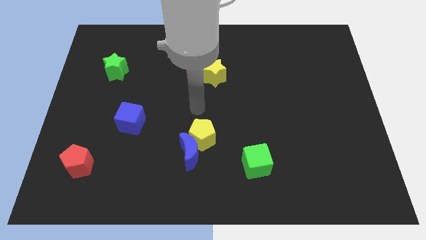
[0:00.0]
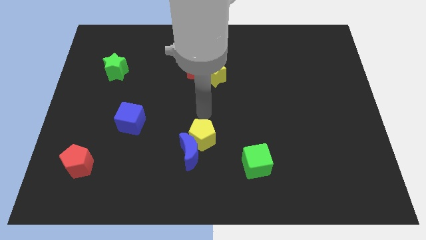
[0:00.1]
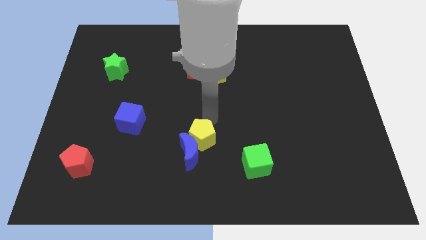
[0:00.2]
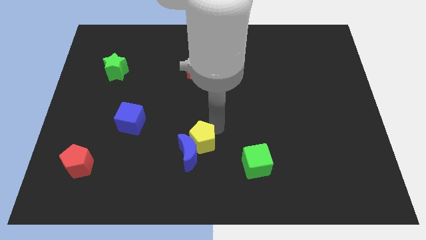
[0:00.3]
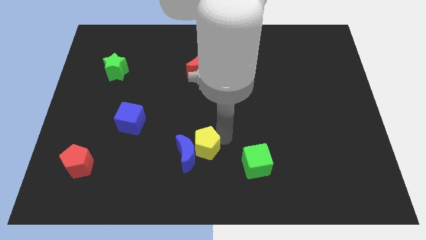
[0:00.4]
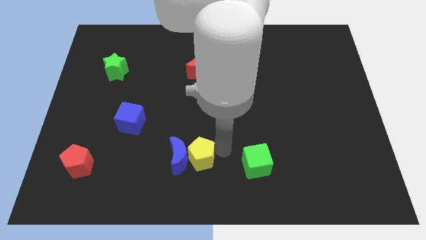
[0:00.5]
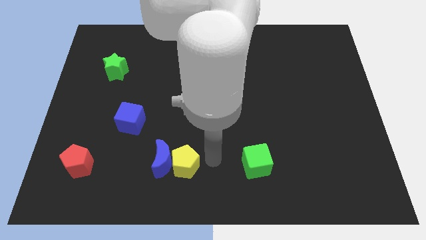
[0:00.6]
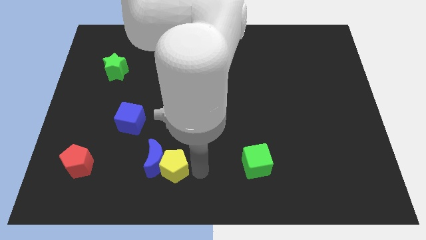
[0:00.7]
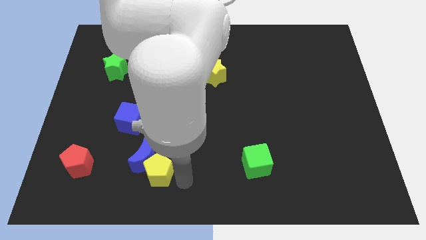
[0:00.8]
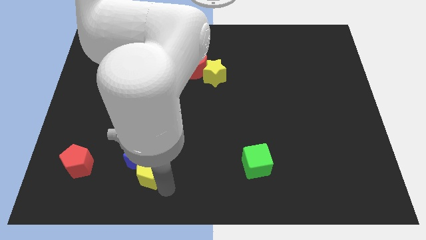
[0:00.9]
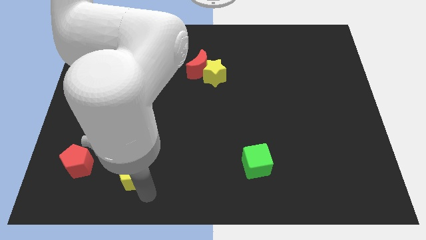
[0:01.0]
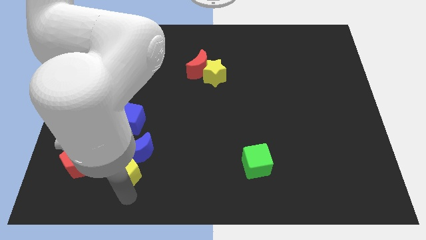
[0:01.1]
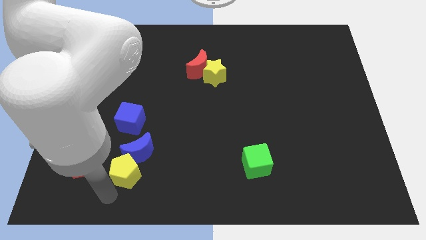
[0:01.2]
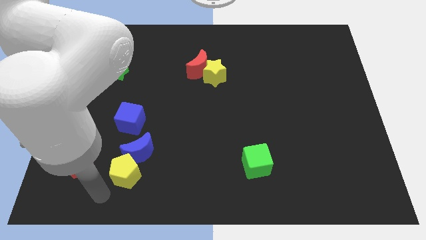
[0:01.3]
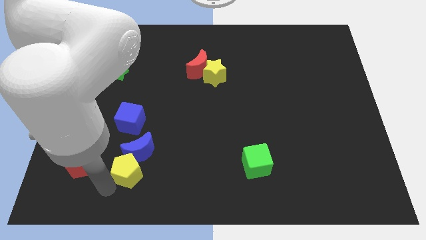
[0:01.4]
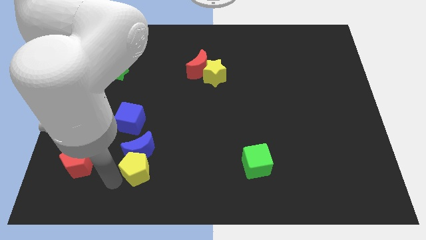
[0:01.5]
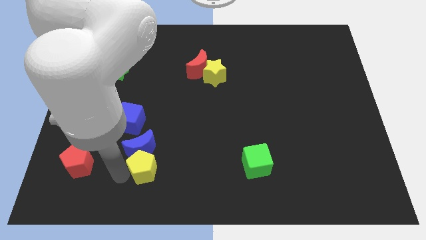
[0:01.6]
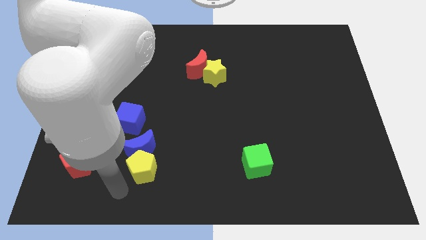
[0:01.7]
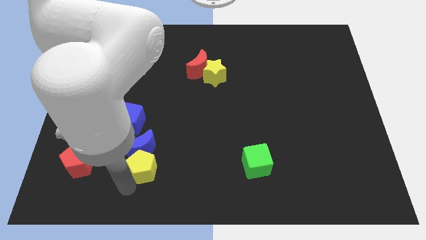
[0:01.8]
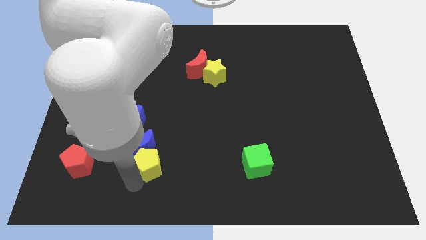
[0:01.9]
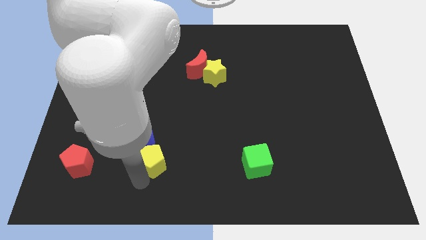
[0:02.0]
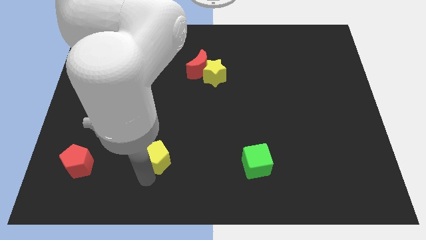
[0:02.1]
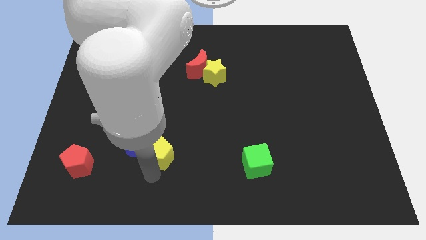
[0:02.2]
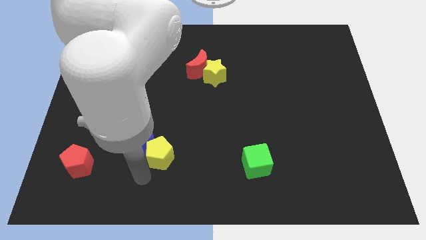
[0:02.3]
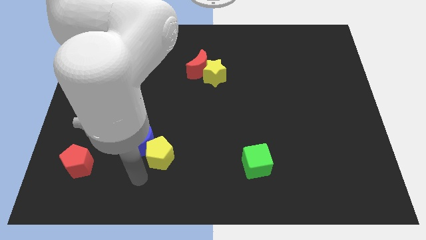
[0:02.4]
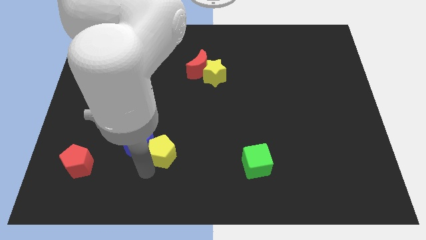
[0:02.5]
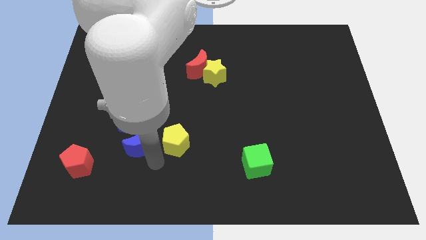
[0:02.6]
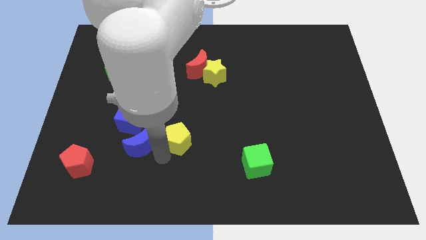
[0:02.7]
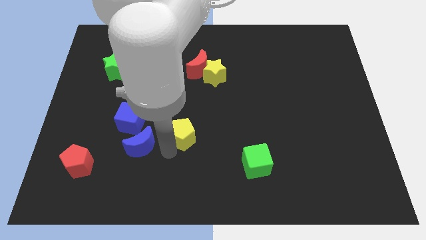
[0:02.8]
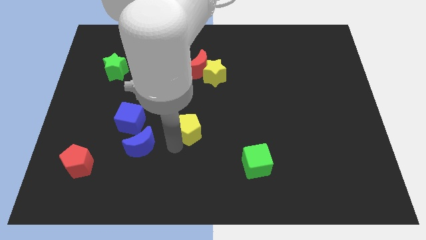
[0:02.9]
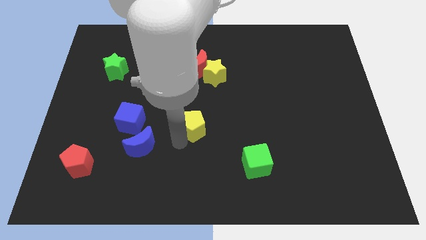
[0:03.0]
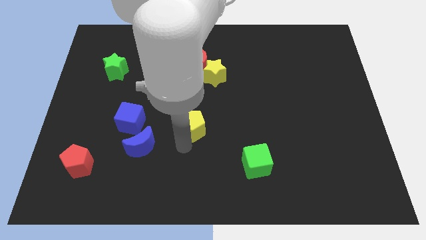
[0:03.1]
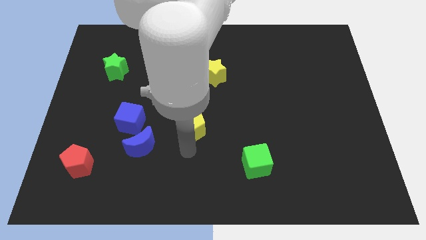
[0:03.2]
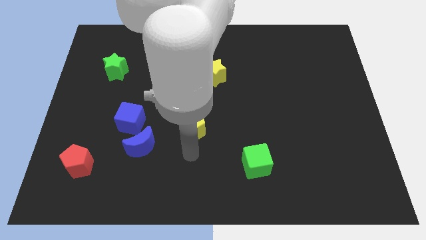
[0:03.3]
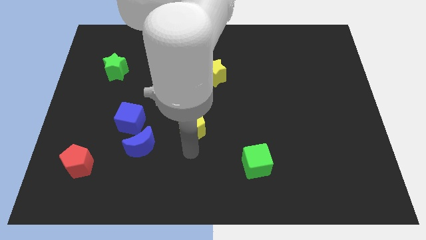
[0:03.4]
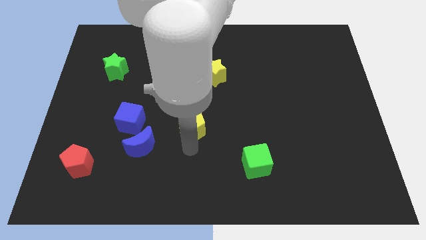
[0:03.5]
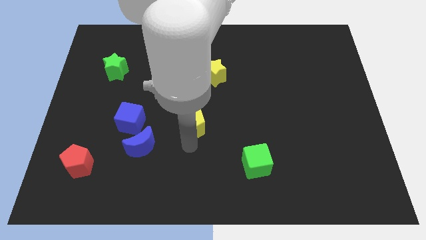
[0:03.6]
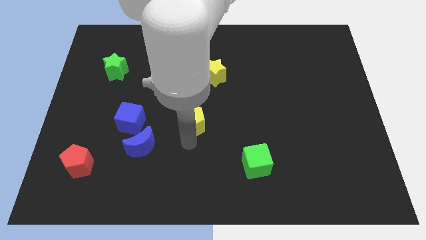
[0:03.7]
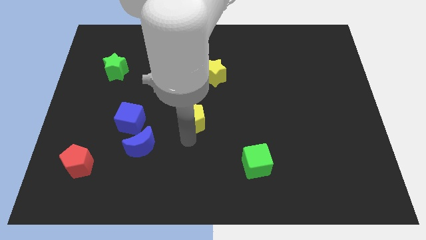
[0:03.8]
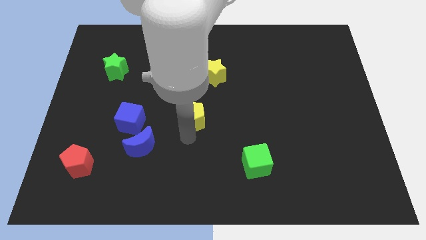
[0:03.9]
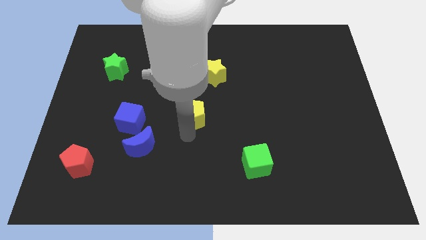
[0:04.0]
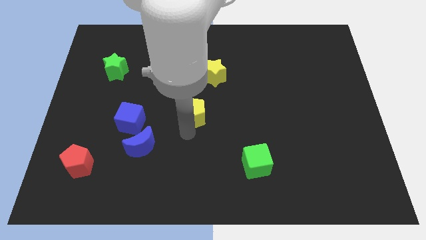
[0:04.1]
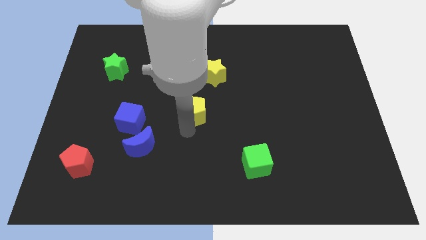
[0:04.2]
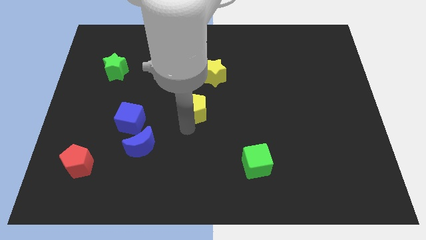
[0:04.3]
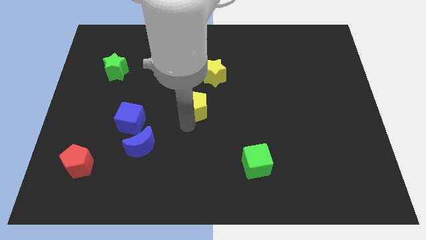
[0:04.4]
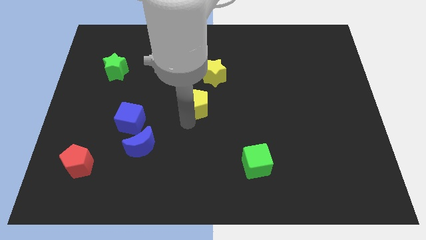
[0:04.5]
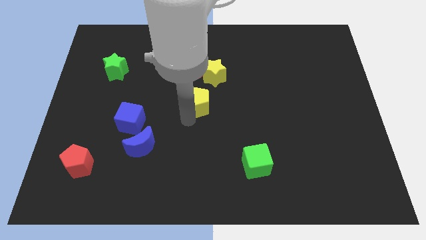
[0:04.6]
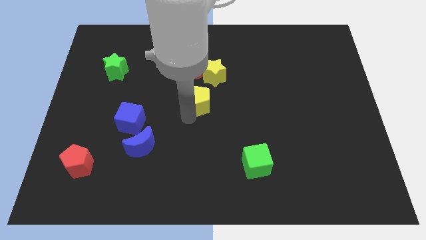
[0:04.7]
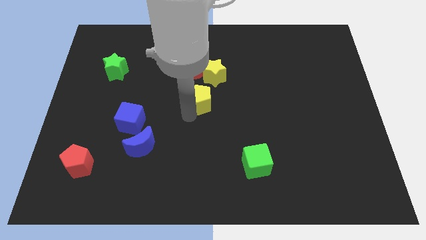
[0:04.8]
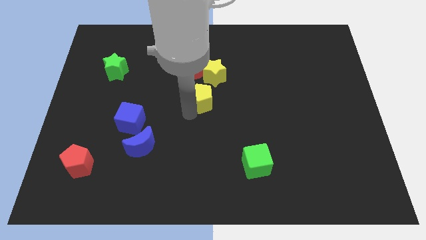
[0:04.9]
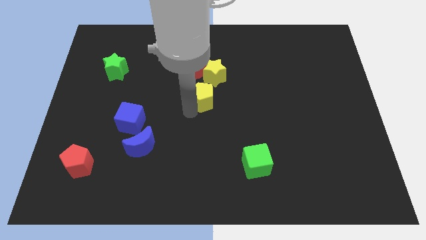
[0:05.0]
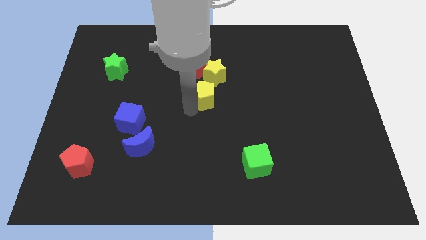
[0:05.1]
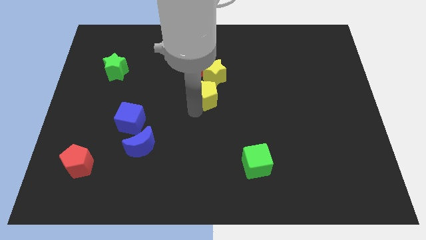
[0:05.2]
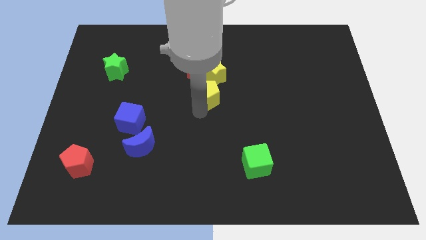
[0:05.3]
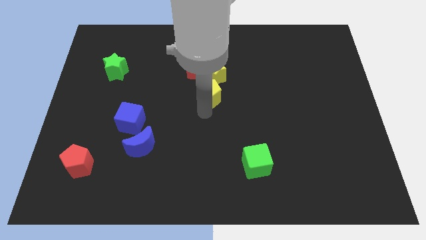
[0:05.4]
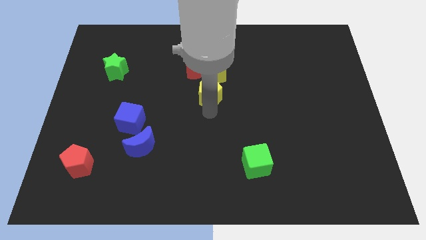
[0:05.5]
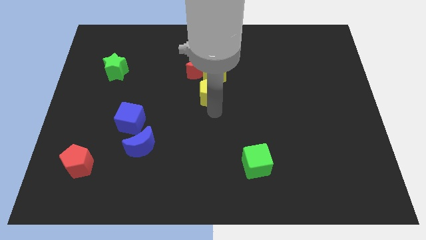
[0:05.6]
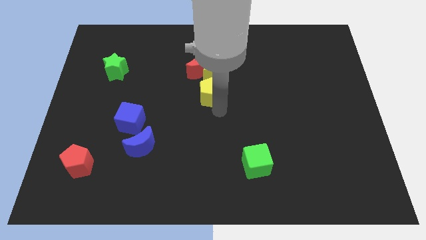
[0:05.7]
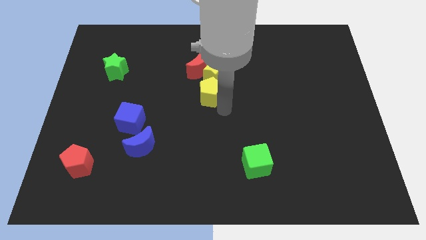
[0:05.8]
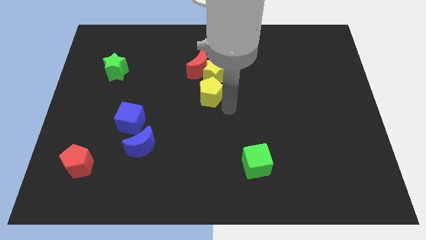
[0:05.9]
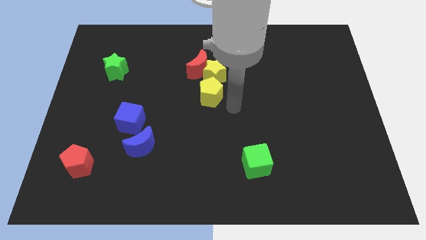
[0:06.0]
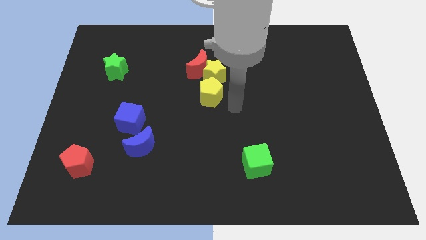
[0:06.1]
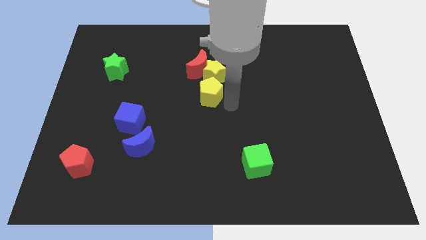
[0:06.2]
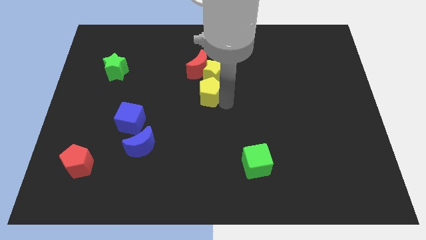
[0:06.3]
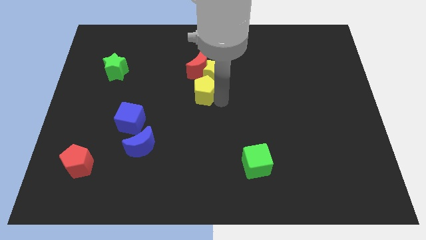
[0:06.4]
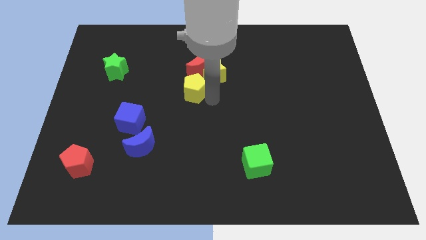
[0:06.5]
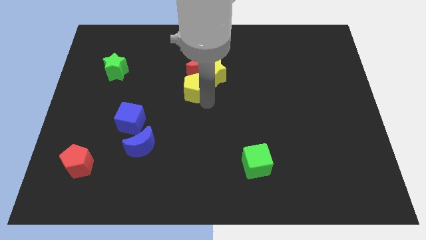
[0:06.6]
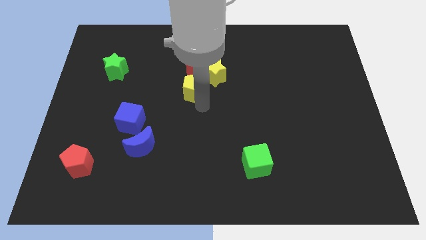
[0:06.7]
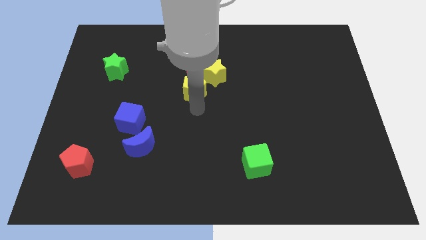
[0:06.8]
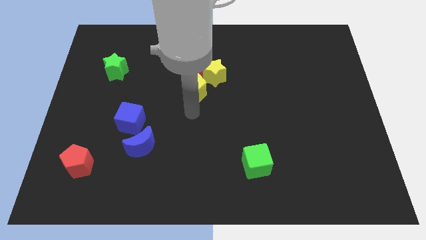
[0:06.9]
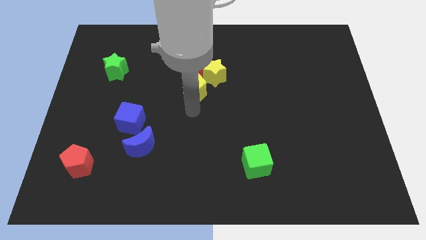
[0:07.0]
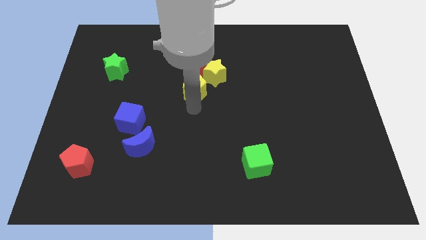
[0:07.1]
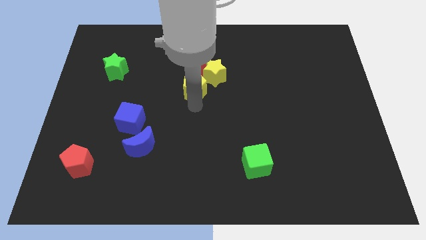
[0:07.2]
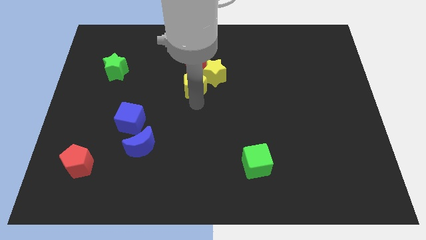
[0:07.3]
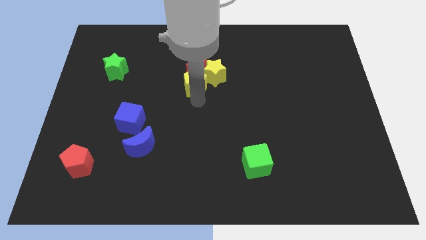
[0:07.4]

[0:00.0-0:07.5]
put the yellow pentagon next to the red moon
